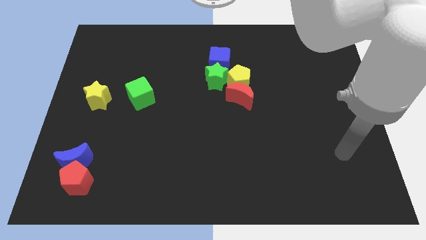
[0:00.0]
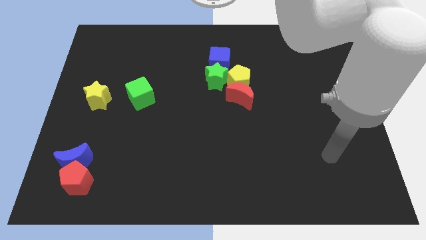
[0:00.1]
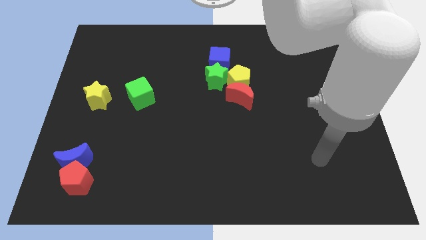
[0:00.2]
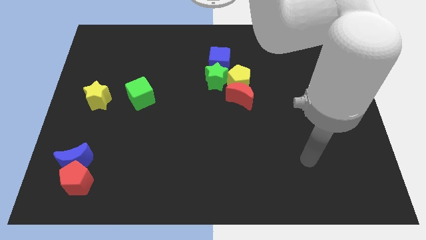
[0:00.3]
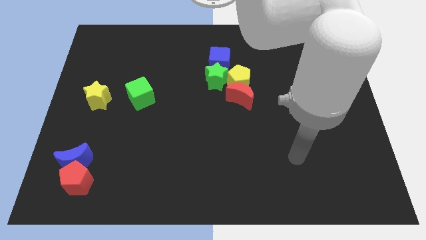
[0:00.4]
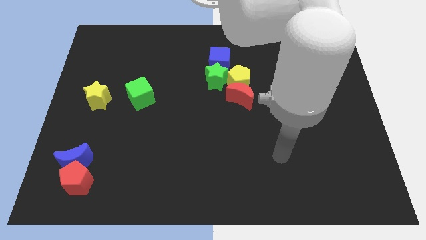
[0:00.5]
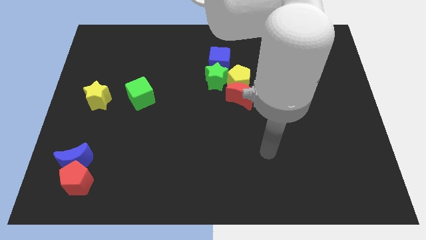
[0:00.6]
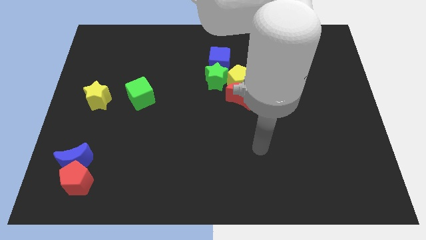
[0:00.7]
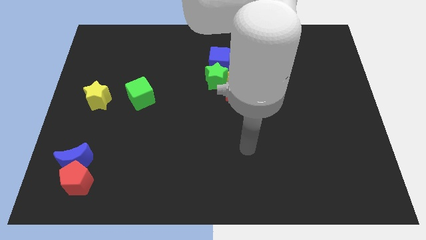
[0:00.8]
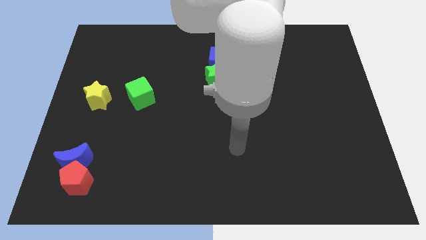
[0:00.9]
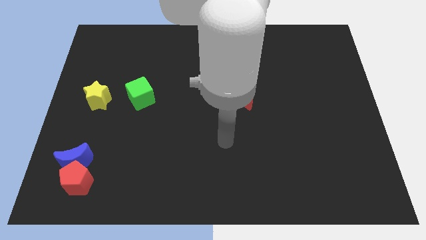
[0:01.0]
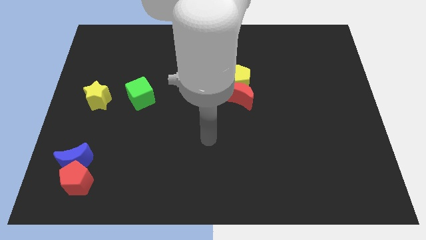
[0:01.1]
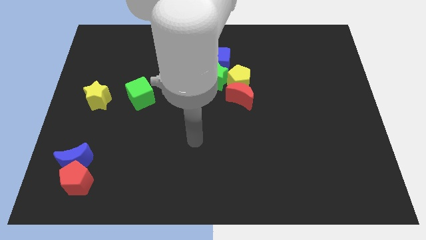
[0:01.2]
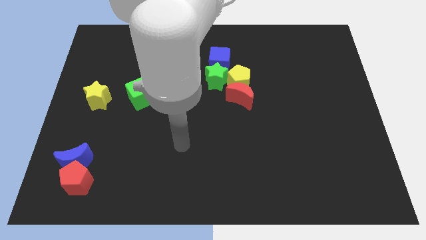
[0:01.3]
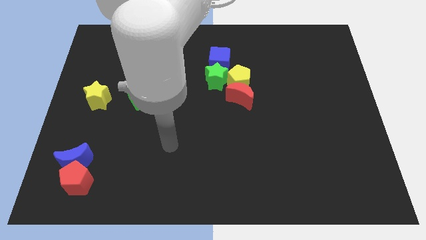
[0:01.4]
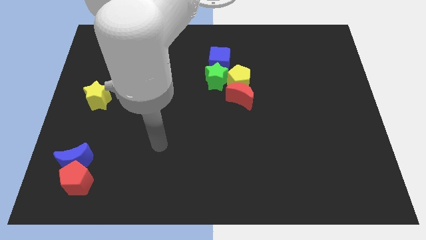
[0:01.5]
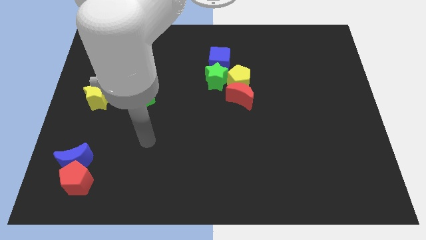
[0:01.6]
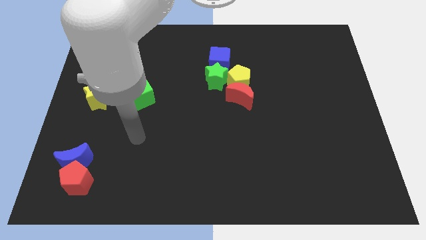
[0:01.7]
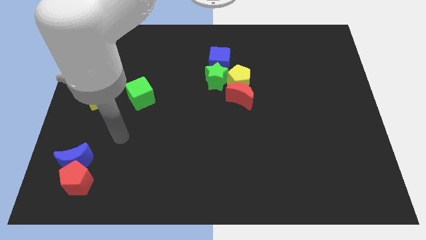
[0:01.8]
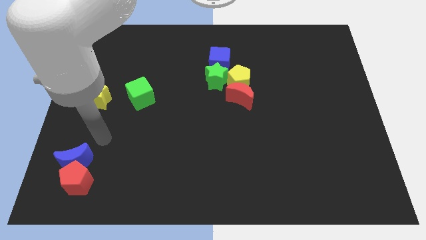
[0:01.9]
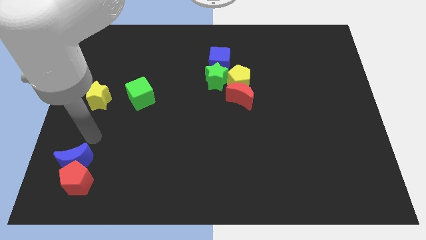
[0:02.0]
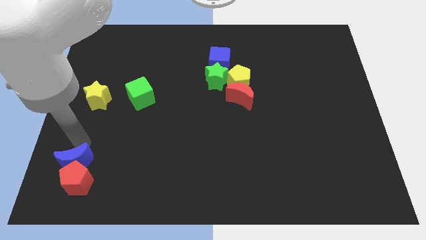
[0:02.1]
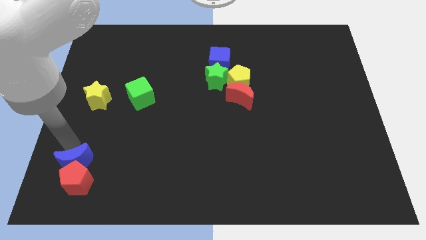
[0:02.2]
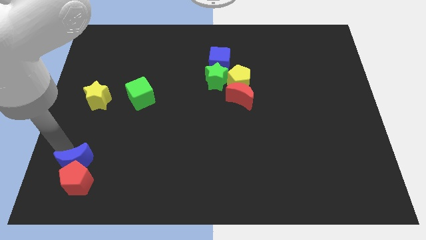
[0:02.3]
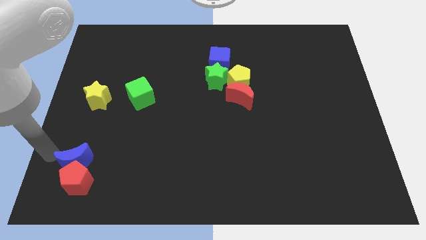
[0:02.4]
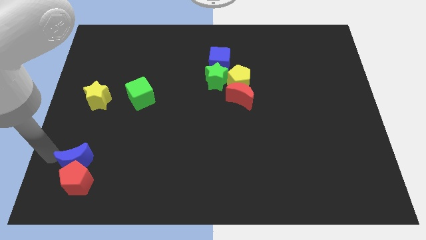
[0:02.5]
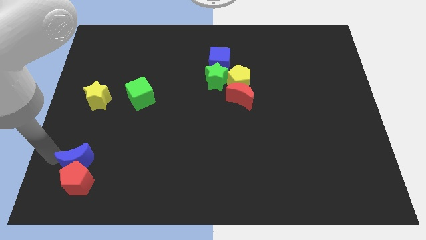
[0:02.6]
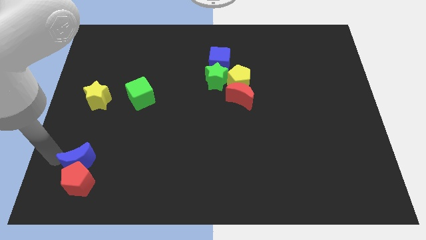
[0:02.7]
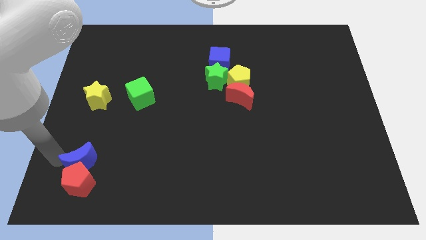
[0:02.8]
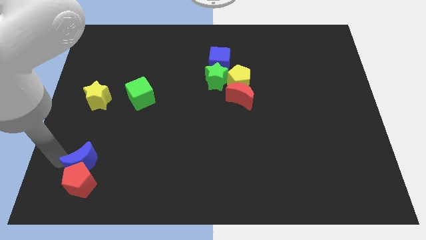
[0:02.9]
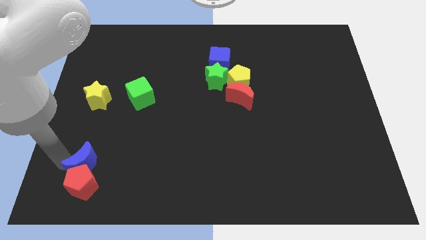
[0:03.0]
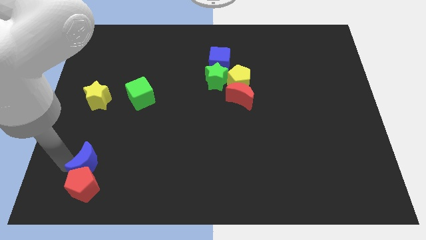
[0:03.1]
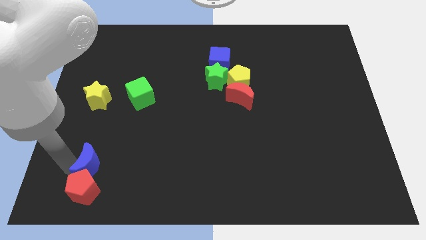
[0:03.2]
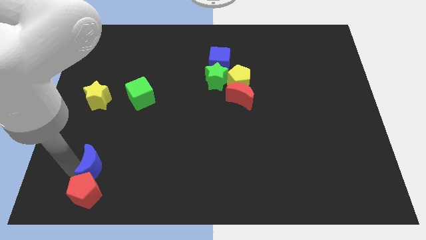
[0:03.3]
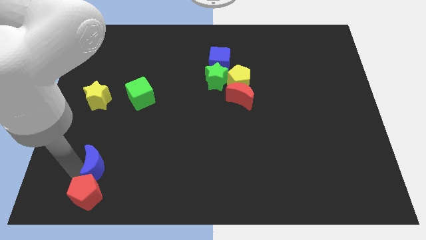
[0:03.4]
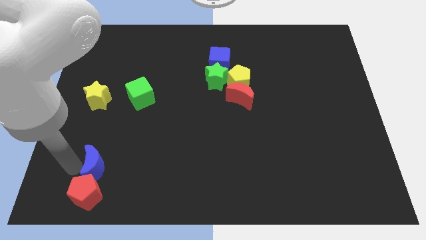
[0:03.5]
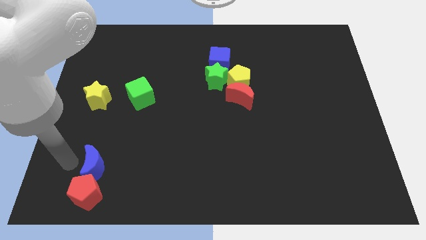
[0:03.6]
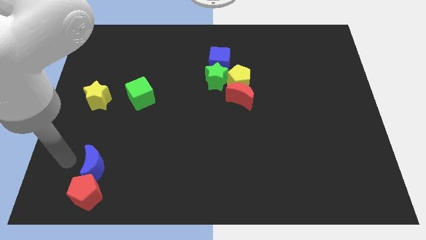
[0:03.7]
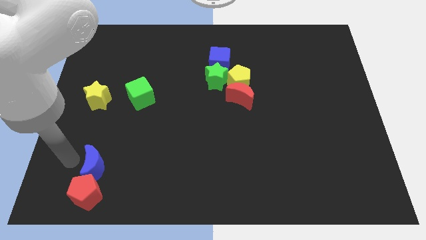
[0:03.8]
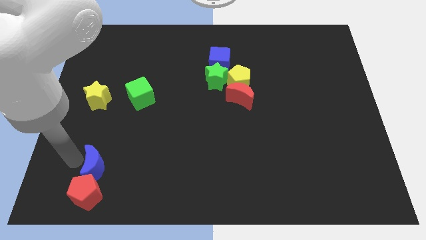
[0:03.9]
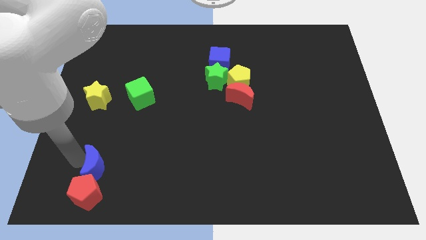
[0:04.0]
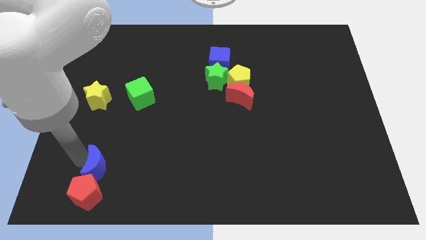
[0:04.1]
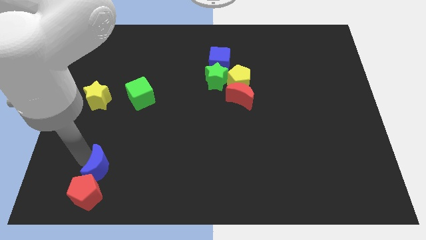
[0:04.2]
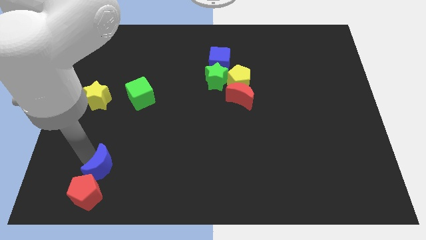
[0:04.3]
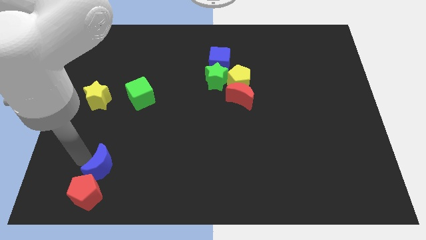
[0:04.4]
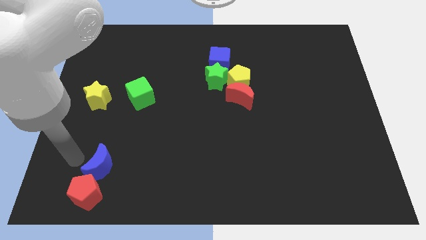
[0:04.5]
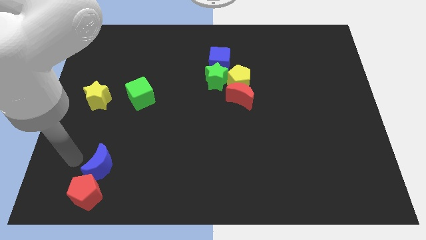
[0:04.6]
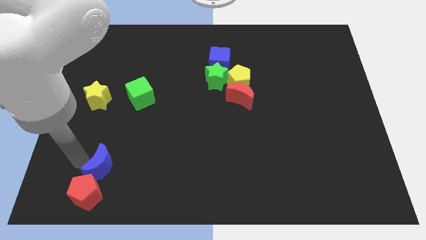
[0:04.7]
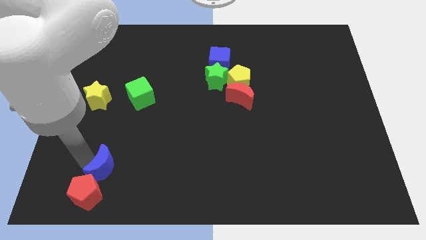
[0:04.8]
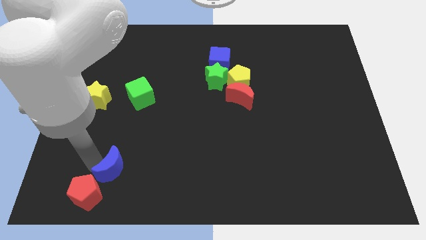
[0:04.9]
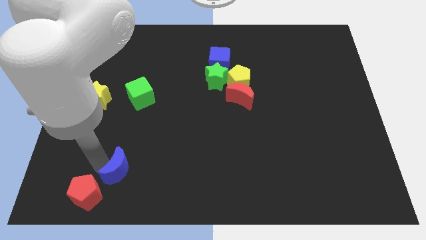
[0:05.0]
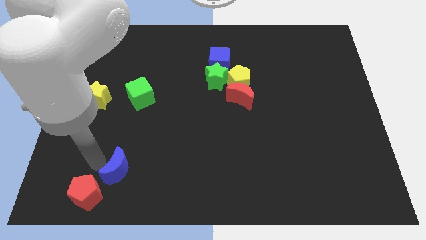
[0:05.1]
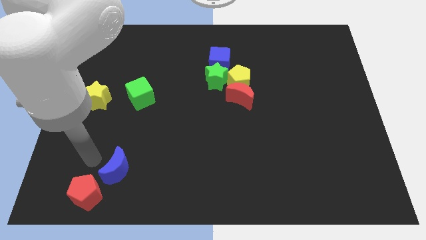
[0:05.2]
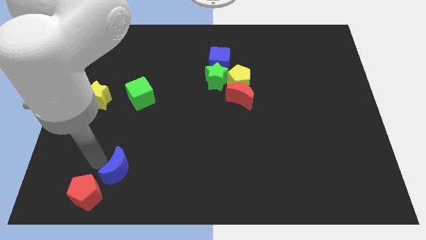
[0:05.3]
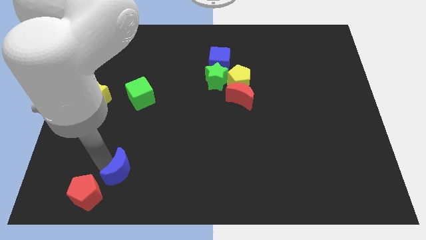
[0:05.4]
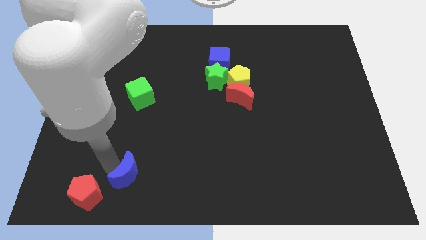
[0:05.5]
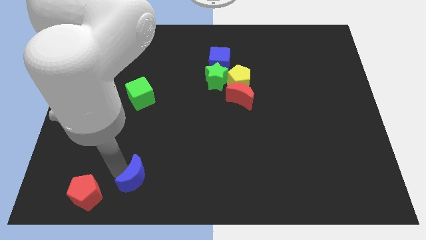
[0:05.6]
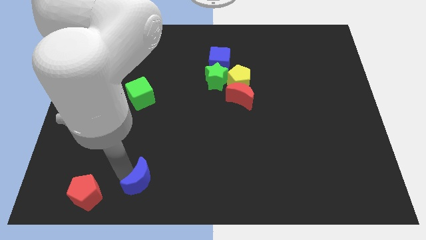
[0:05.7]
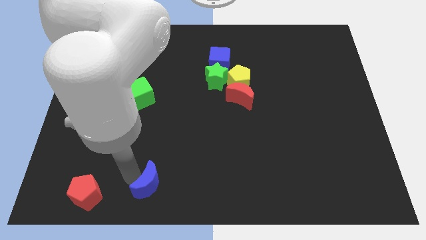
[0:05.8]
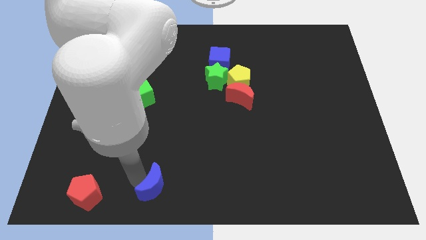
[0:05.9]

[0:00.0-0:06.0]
slide the blue moon to the bottom side
